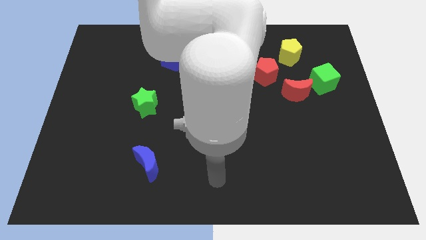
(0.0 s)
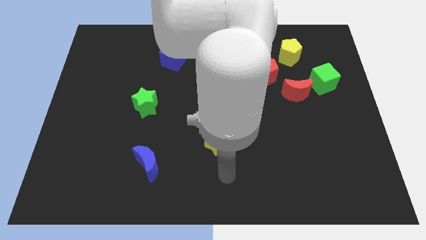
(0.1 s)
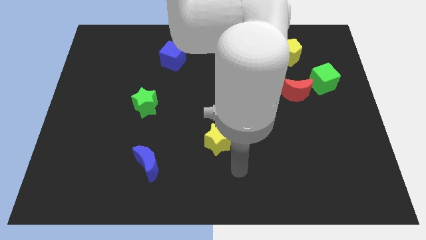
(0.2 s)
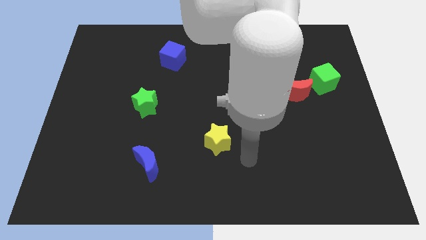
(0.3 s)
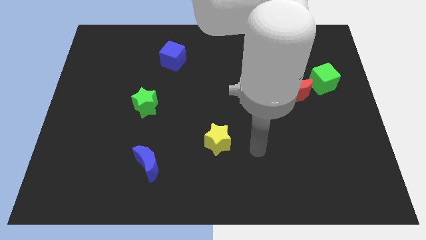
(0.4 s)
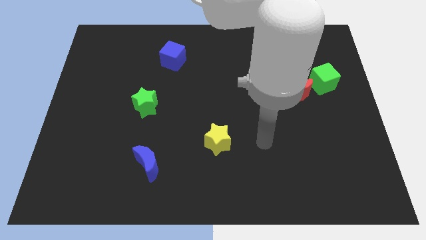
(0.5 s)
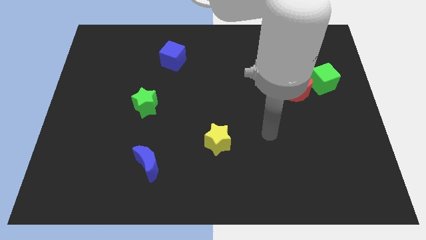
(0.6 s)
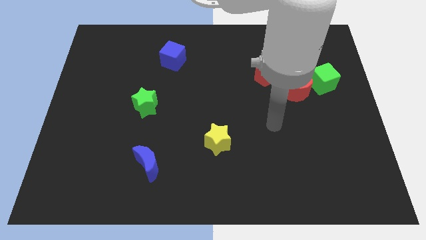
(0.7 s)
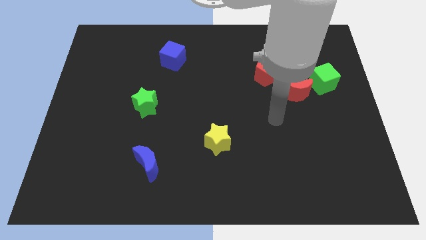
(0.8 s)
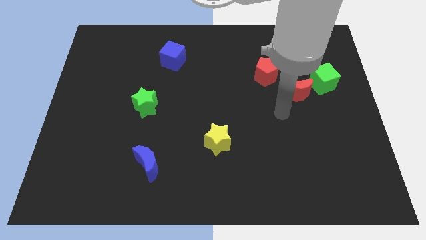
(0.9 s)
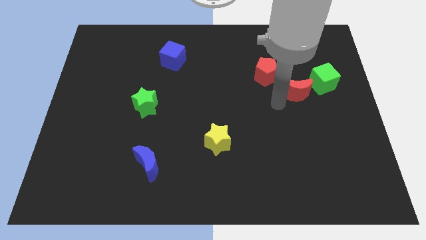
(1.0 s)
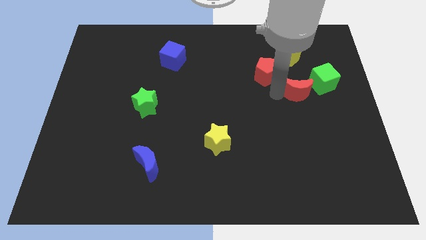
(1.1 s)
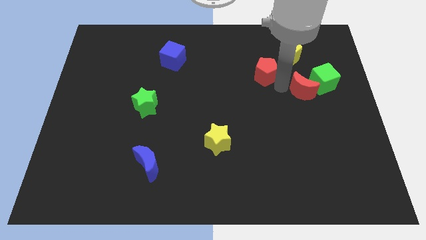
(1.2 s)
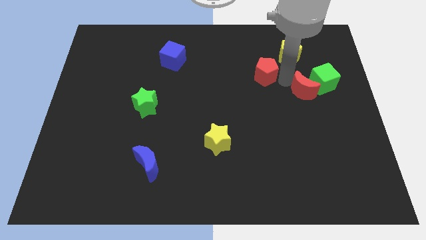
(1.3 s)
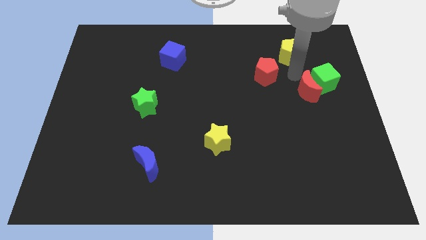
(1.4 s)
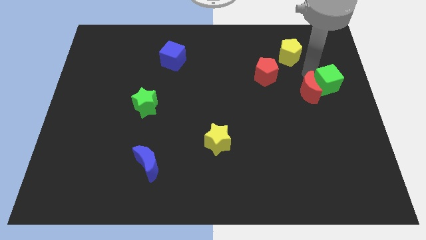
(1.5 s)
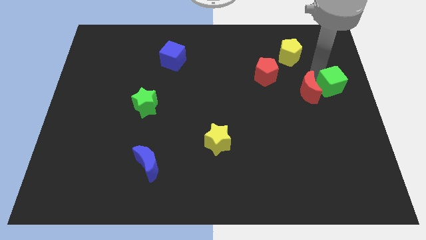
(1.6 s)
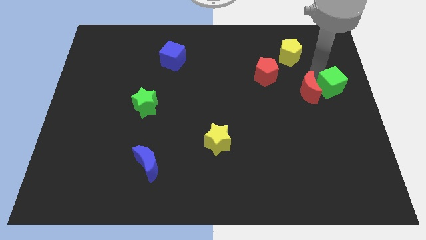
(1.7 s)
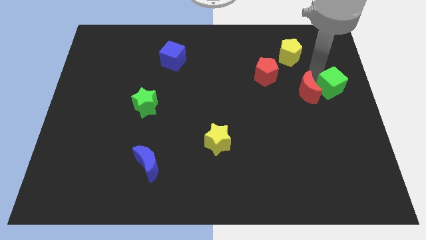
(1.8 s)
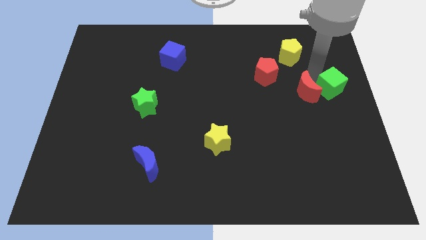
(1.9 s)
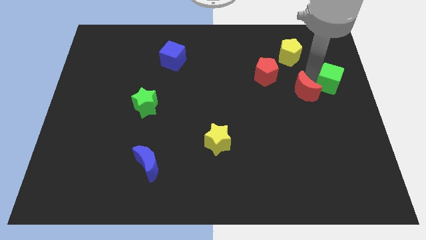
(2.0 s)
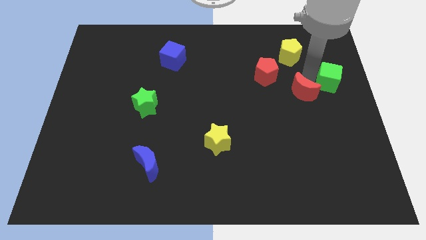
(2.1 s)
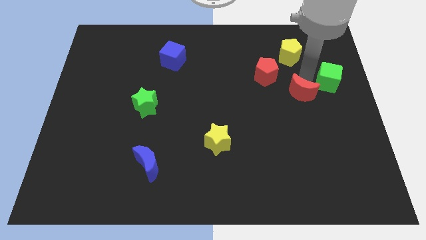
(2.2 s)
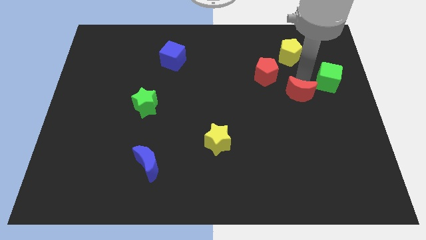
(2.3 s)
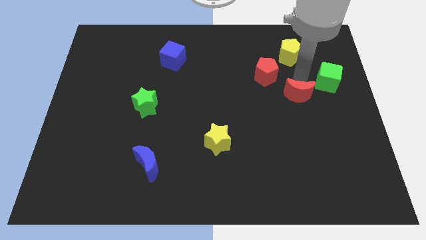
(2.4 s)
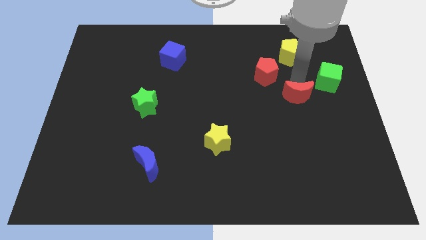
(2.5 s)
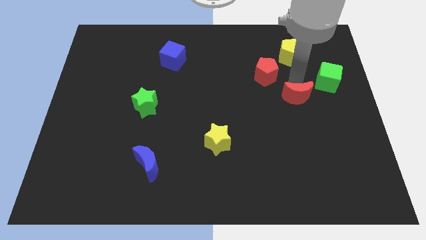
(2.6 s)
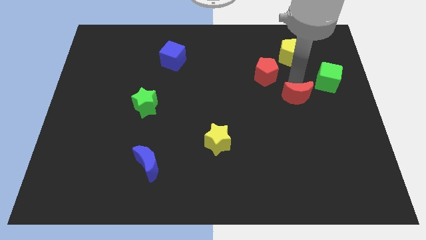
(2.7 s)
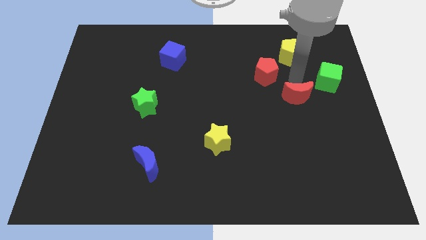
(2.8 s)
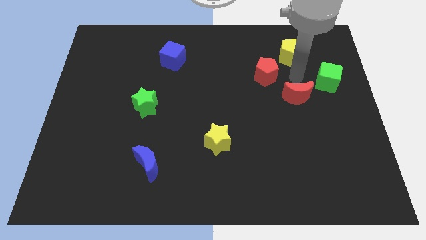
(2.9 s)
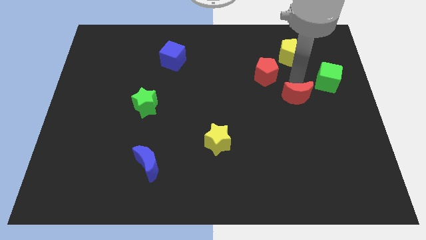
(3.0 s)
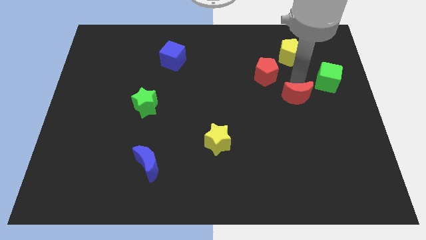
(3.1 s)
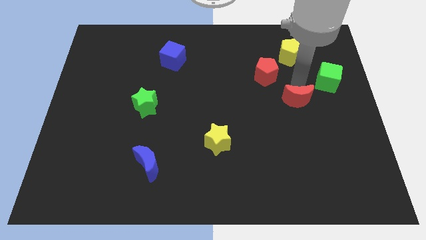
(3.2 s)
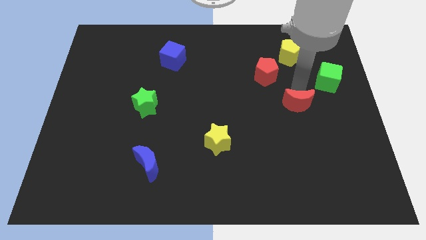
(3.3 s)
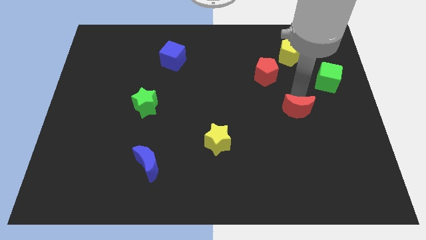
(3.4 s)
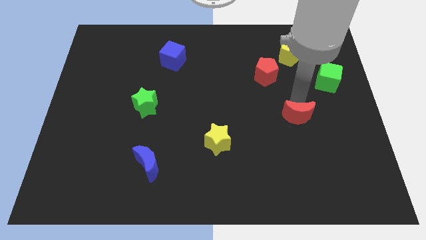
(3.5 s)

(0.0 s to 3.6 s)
move the red moon downwards somewhat

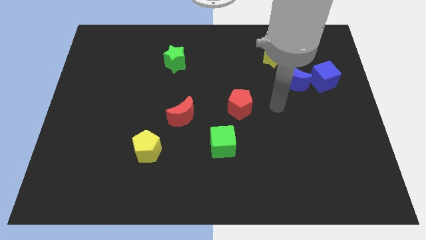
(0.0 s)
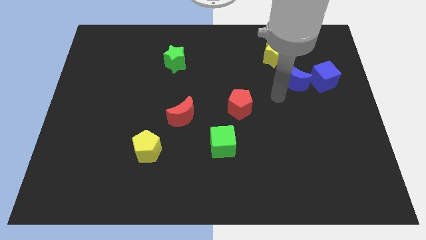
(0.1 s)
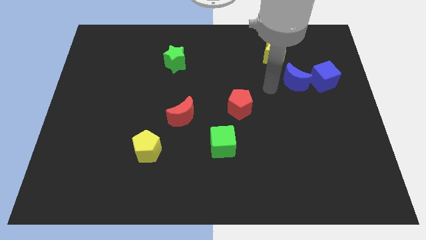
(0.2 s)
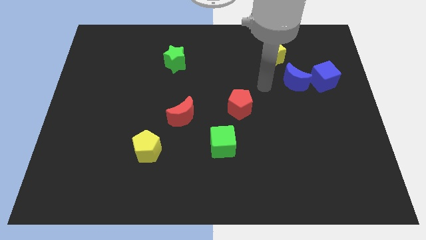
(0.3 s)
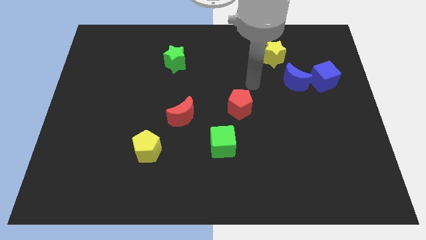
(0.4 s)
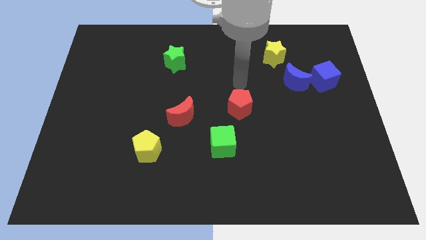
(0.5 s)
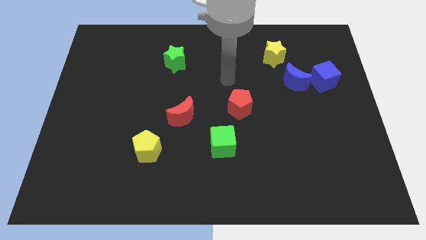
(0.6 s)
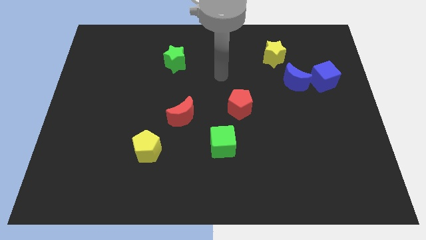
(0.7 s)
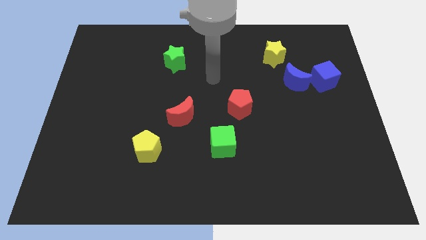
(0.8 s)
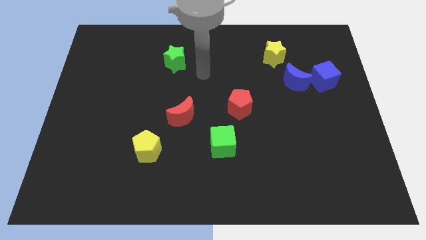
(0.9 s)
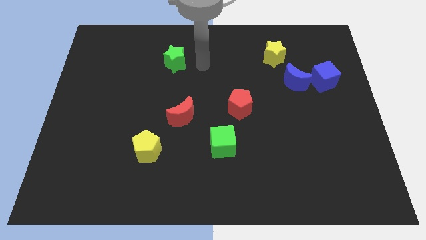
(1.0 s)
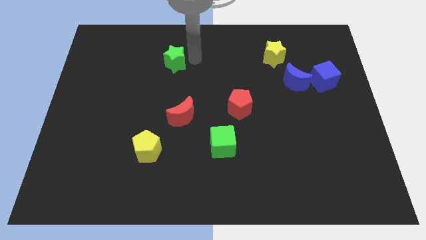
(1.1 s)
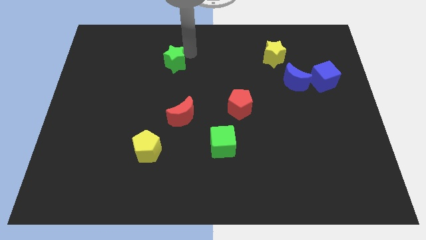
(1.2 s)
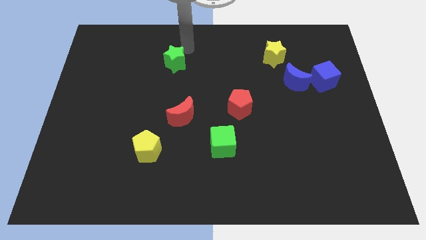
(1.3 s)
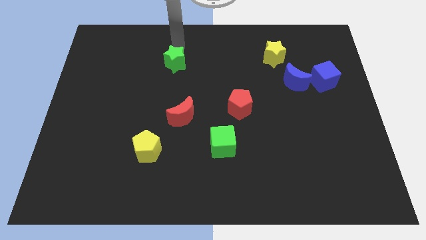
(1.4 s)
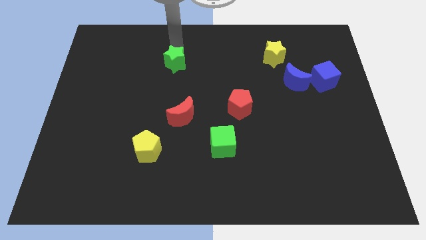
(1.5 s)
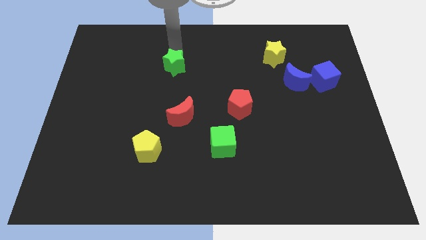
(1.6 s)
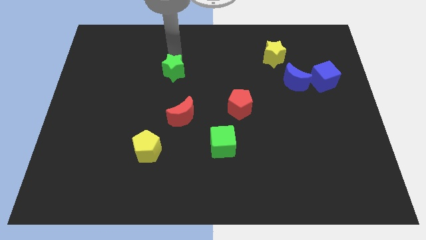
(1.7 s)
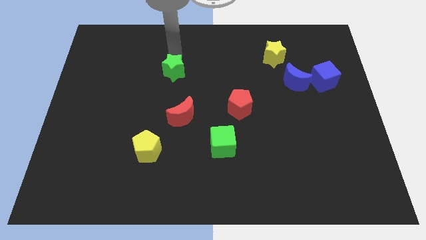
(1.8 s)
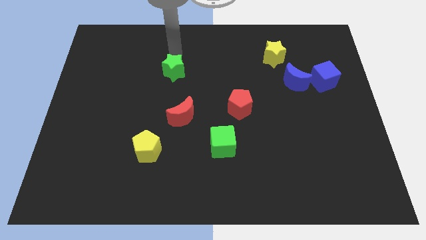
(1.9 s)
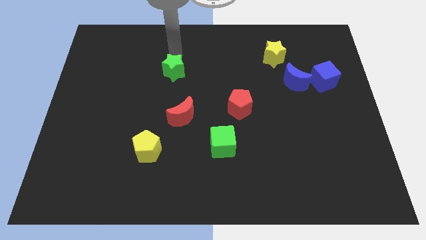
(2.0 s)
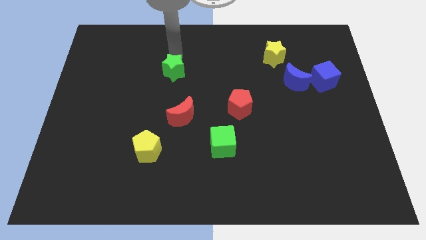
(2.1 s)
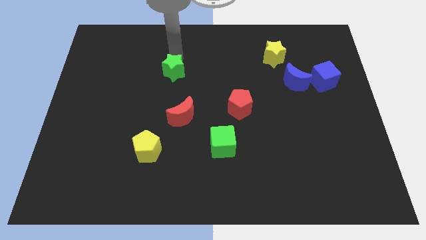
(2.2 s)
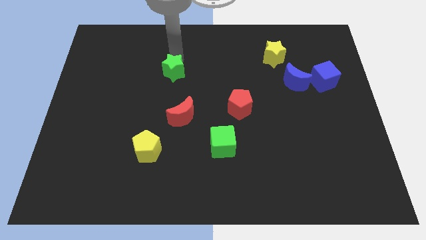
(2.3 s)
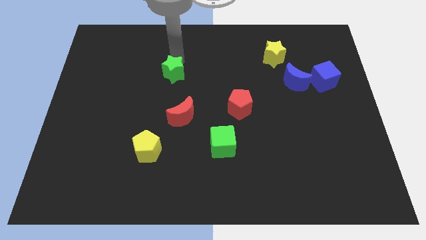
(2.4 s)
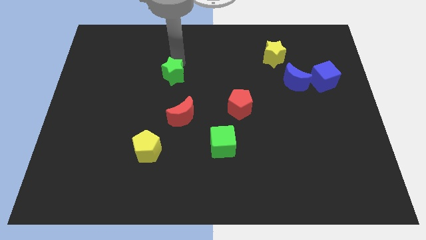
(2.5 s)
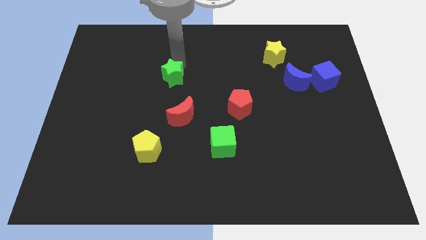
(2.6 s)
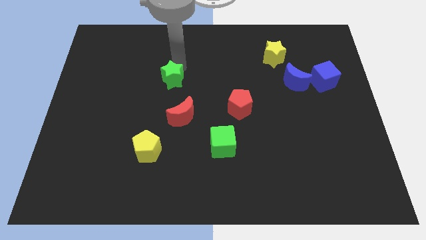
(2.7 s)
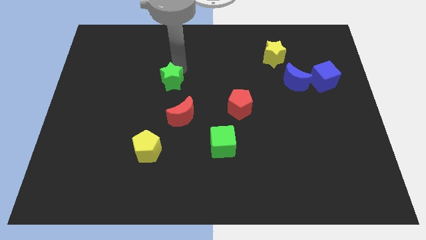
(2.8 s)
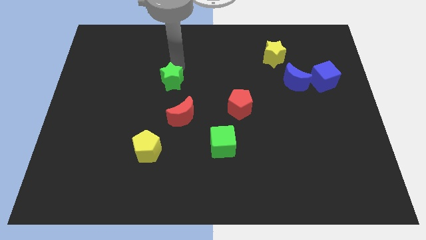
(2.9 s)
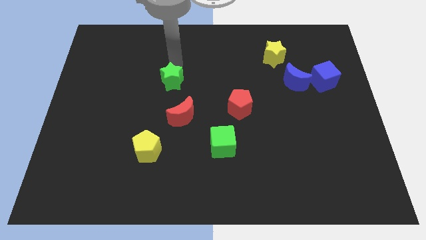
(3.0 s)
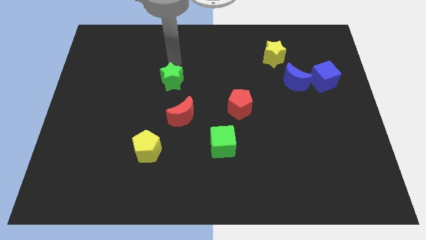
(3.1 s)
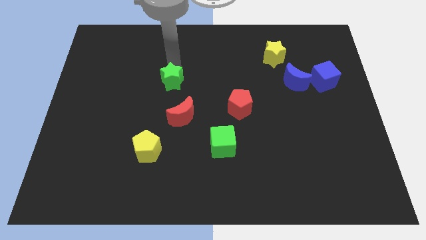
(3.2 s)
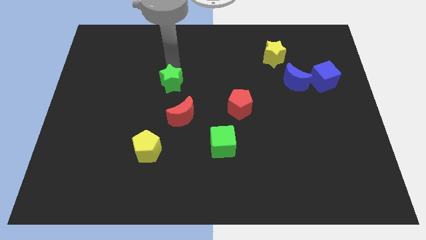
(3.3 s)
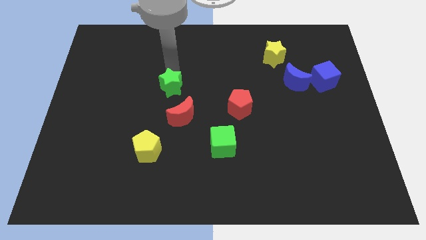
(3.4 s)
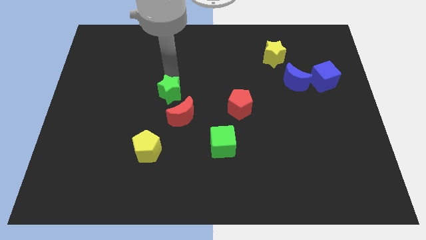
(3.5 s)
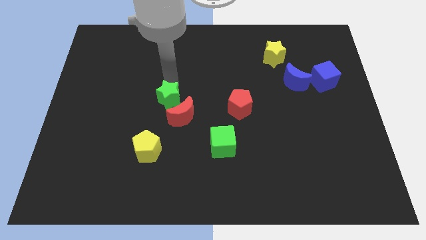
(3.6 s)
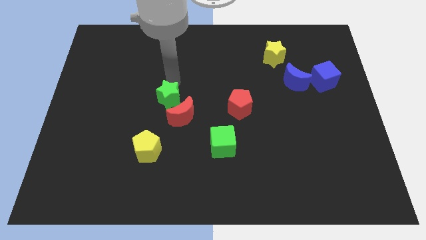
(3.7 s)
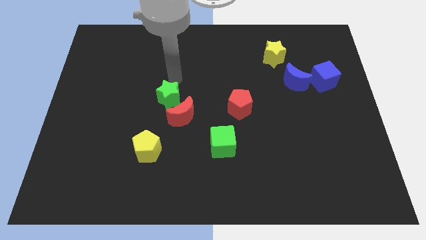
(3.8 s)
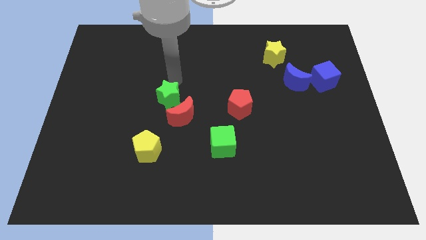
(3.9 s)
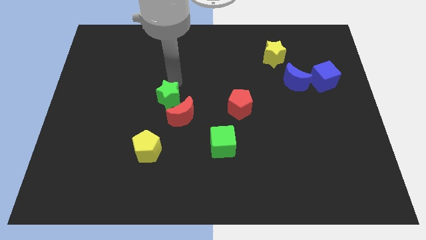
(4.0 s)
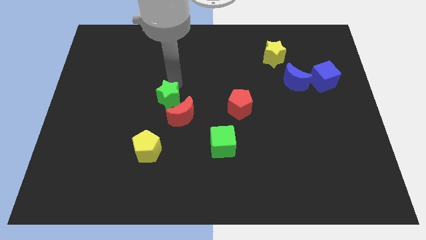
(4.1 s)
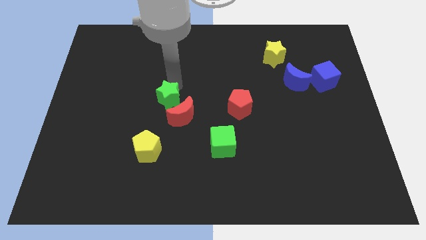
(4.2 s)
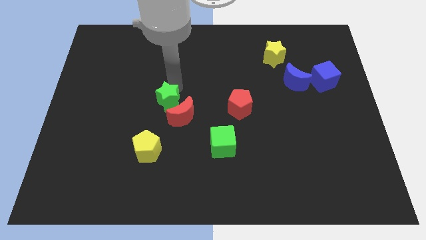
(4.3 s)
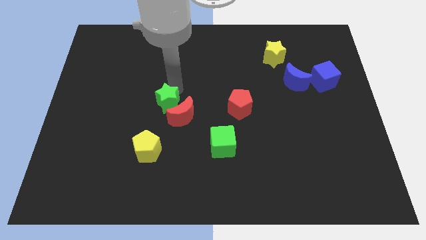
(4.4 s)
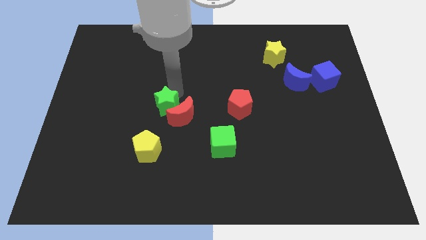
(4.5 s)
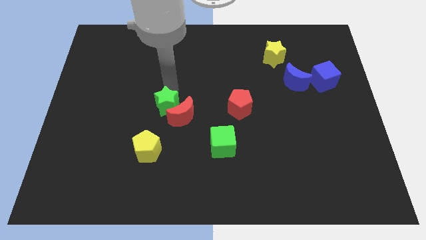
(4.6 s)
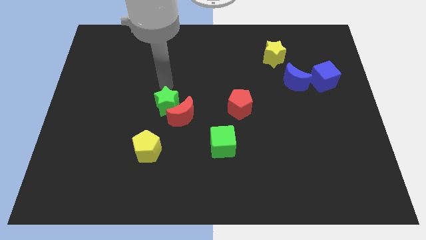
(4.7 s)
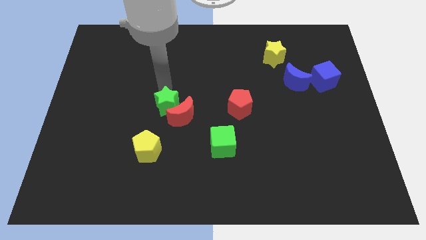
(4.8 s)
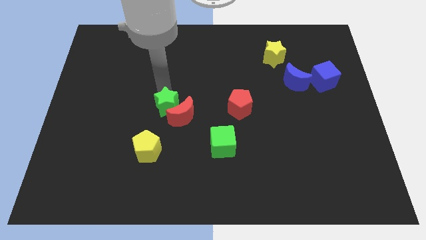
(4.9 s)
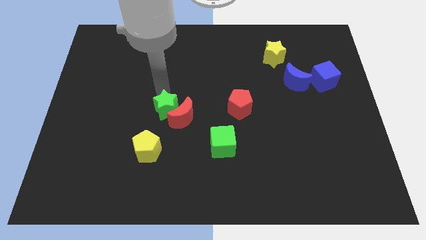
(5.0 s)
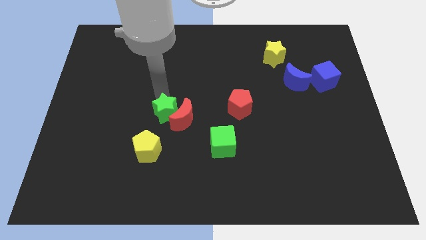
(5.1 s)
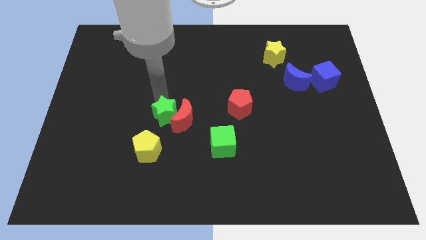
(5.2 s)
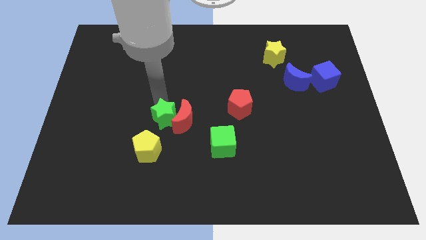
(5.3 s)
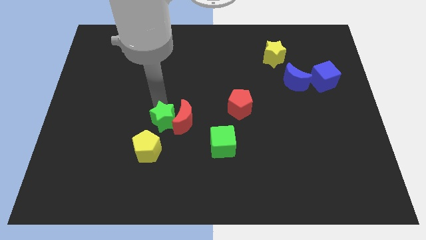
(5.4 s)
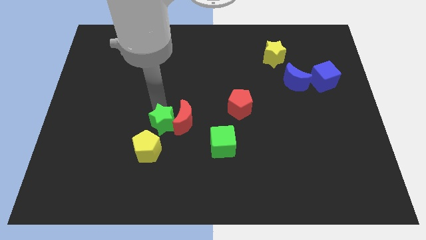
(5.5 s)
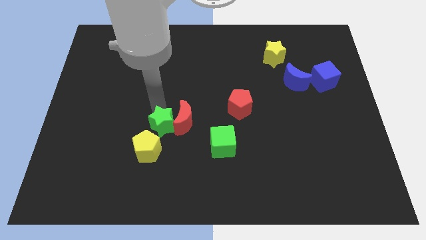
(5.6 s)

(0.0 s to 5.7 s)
move the green star down
